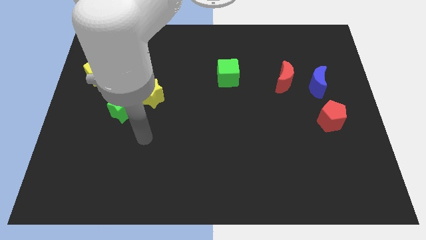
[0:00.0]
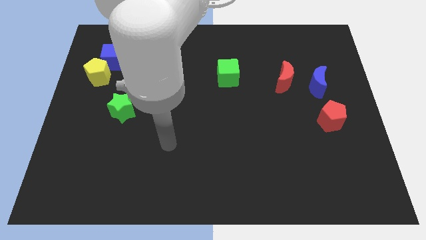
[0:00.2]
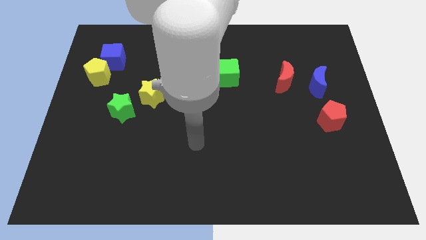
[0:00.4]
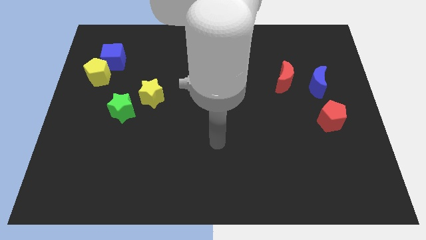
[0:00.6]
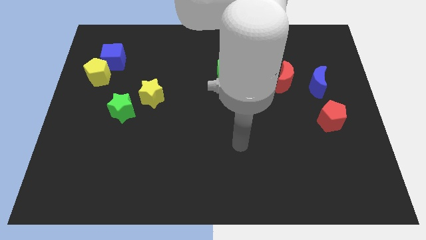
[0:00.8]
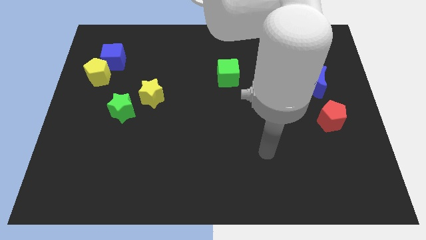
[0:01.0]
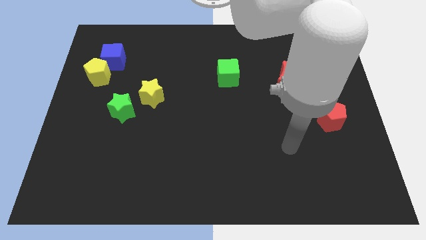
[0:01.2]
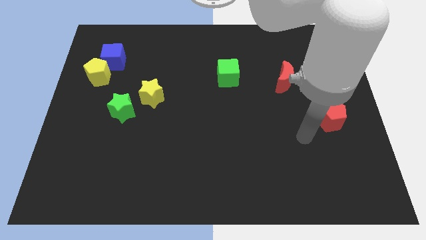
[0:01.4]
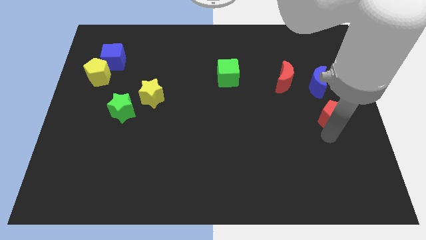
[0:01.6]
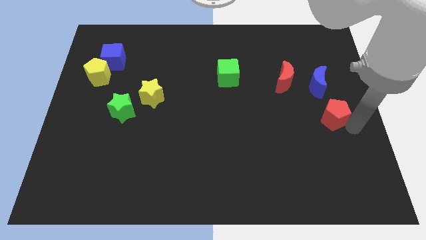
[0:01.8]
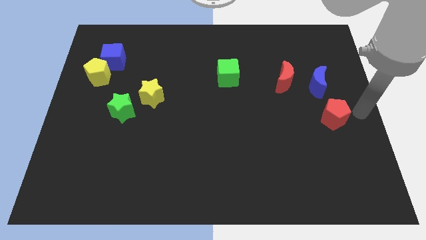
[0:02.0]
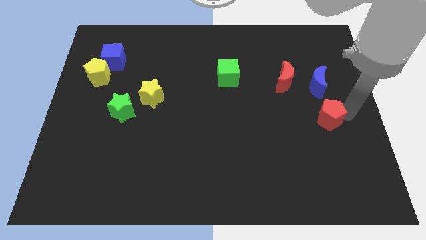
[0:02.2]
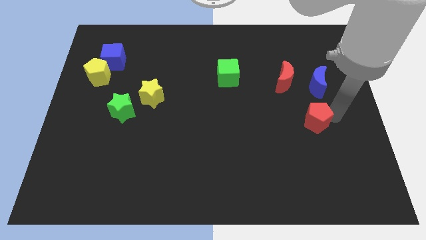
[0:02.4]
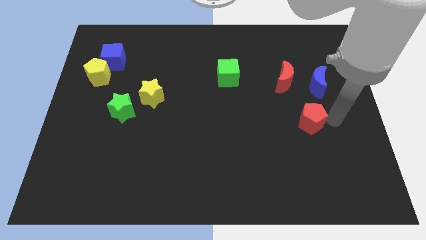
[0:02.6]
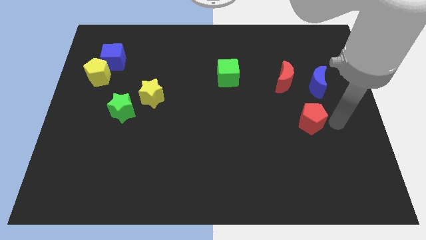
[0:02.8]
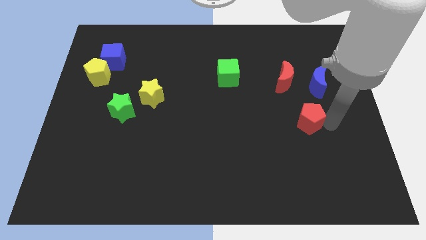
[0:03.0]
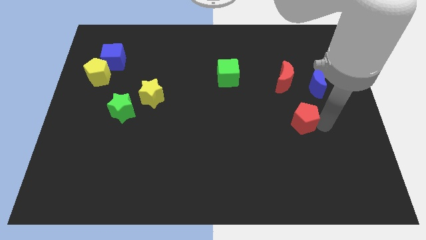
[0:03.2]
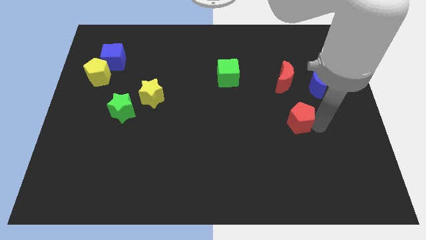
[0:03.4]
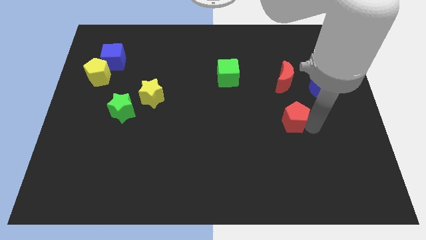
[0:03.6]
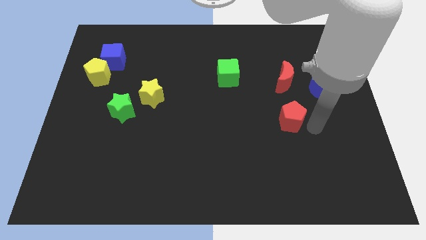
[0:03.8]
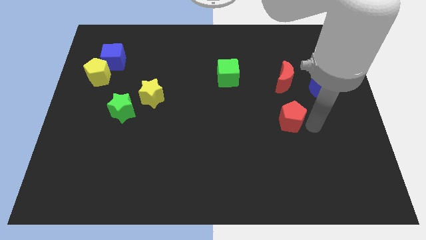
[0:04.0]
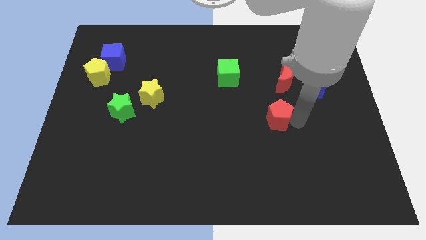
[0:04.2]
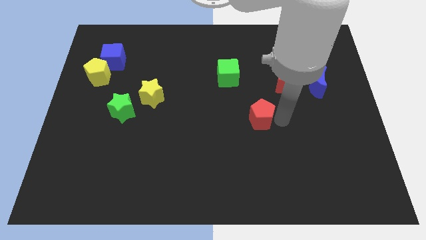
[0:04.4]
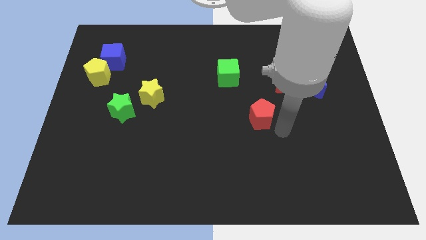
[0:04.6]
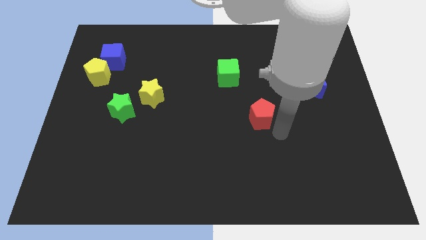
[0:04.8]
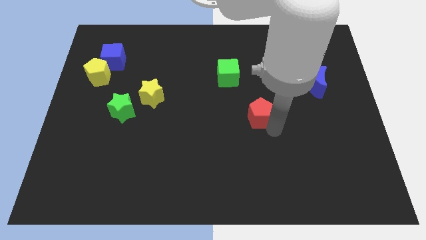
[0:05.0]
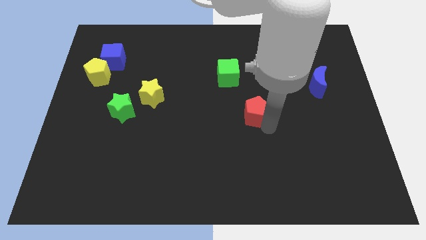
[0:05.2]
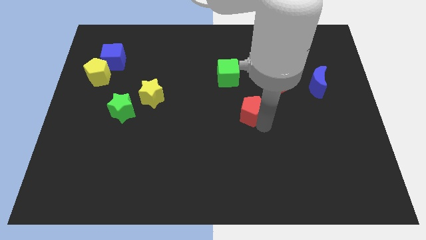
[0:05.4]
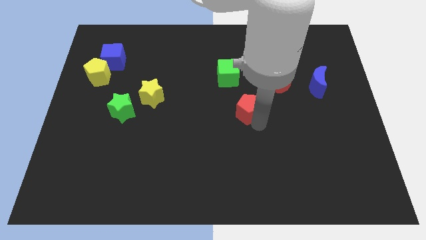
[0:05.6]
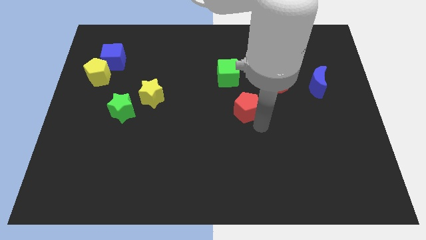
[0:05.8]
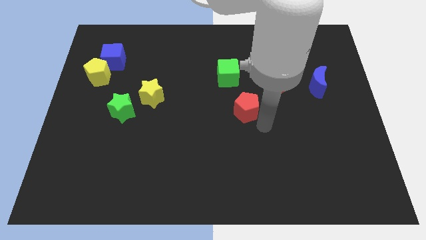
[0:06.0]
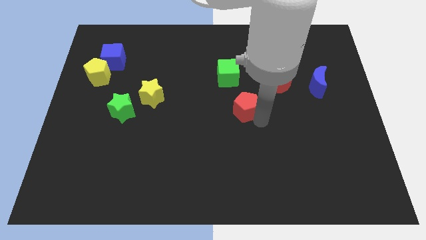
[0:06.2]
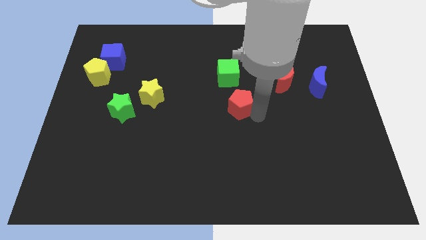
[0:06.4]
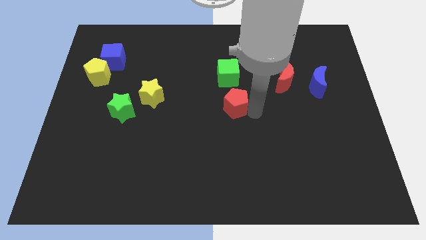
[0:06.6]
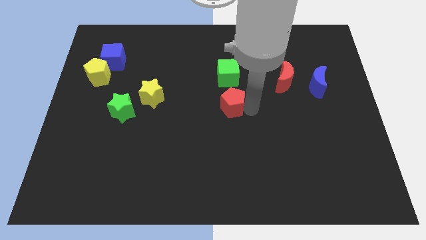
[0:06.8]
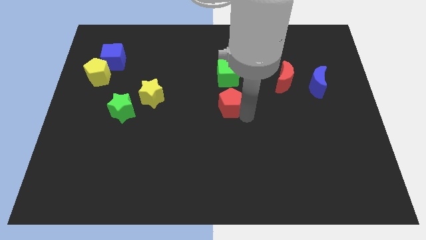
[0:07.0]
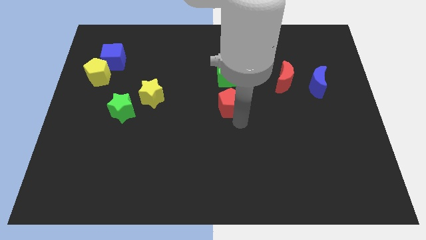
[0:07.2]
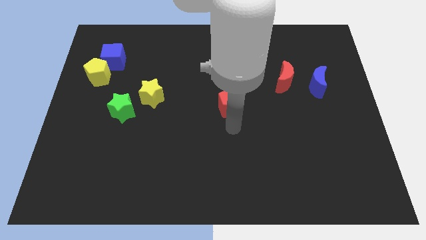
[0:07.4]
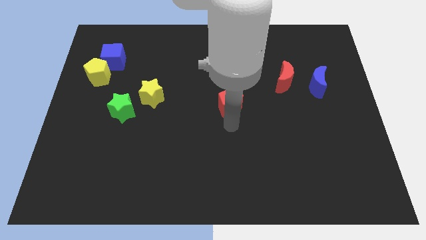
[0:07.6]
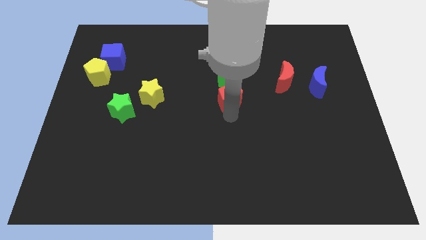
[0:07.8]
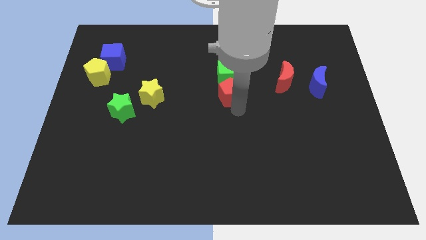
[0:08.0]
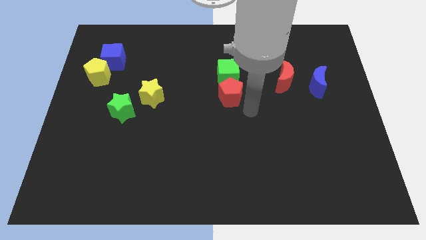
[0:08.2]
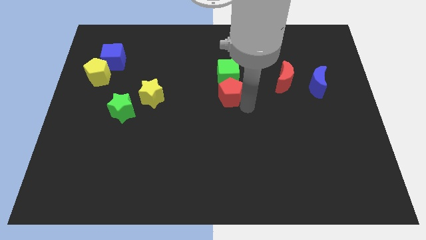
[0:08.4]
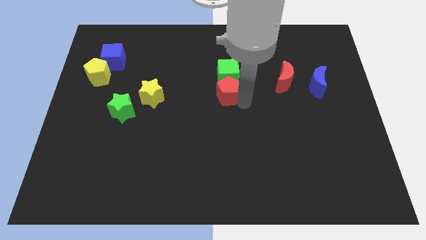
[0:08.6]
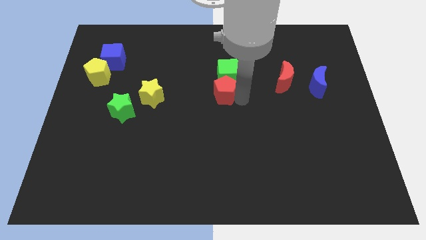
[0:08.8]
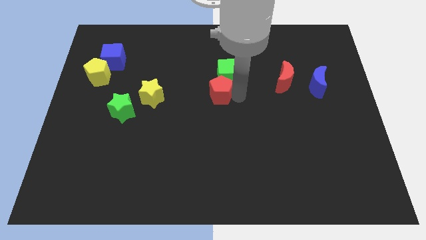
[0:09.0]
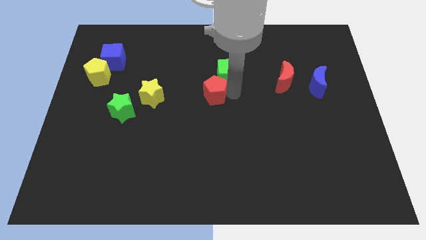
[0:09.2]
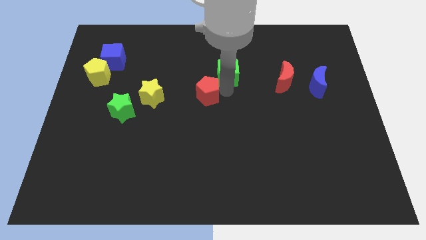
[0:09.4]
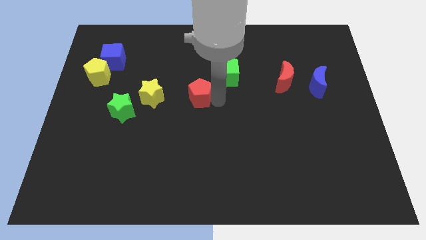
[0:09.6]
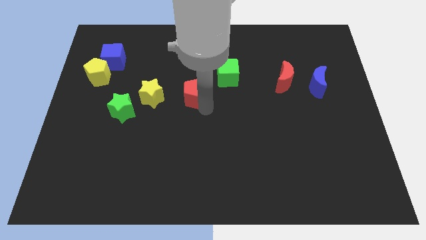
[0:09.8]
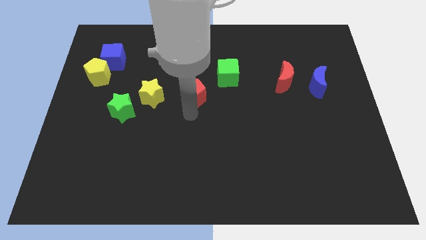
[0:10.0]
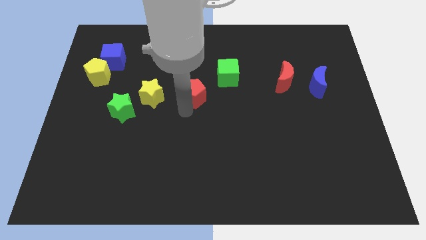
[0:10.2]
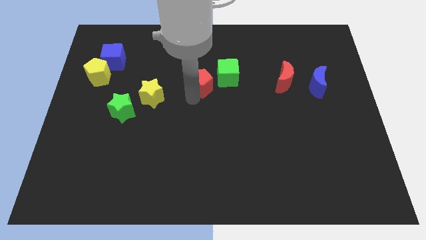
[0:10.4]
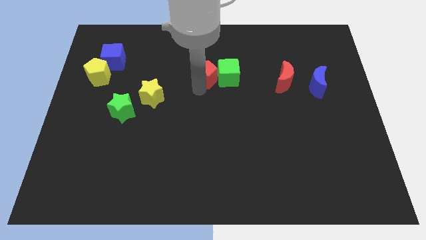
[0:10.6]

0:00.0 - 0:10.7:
push the red pentagon diagonally up and to the left of the green cube

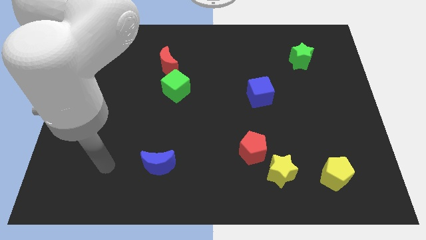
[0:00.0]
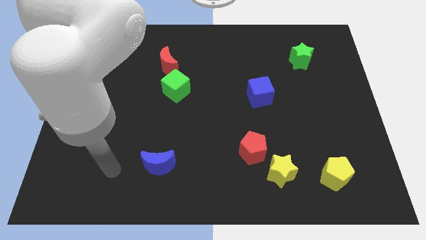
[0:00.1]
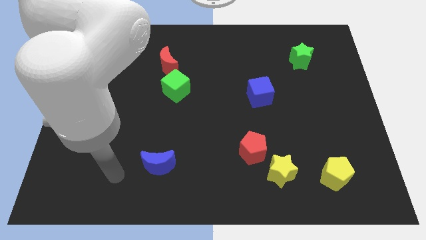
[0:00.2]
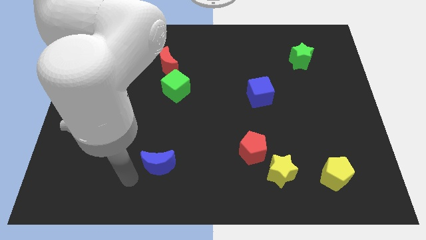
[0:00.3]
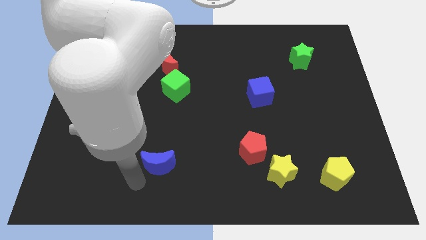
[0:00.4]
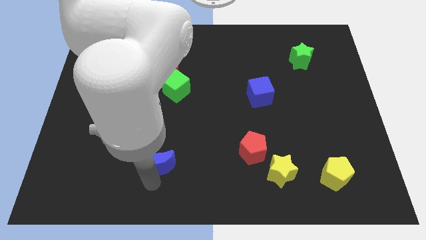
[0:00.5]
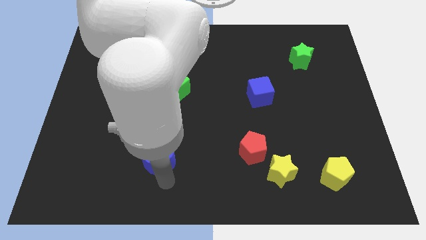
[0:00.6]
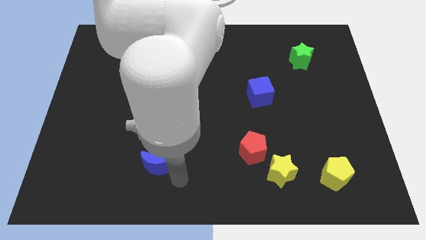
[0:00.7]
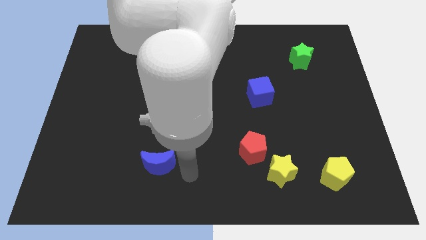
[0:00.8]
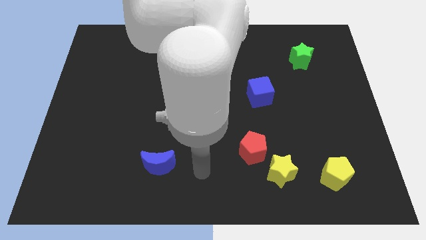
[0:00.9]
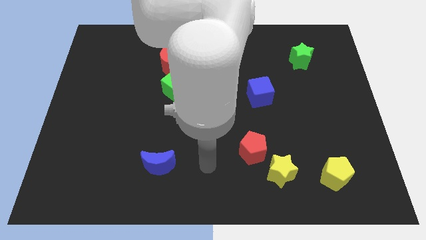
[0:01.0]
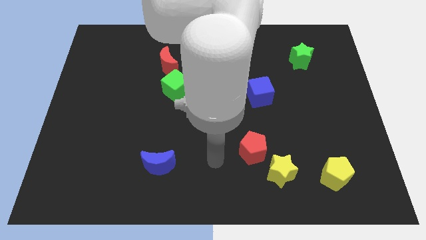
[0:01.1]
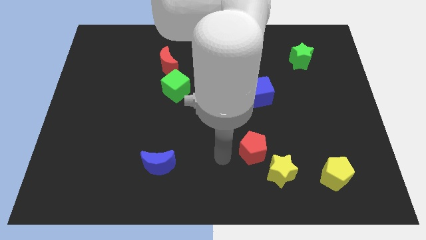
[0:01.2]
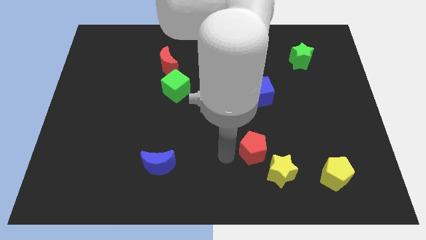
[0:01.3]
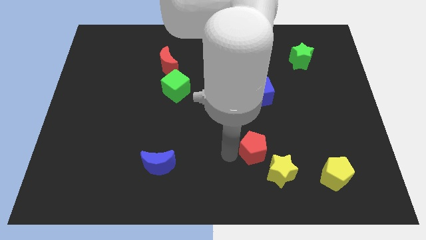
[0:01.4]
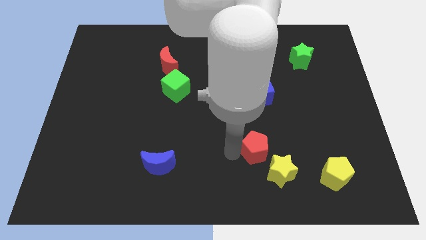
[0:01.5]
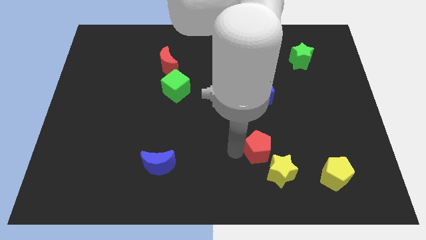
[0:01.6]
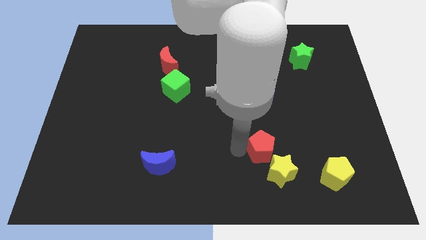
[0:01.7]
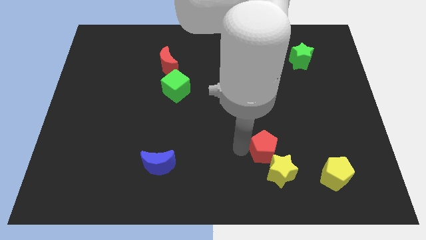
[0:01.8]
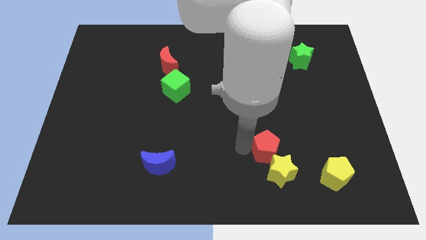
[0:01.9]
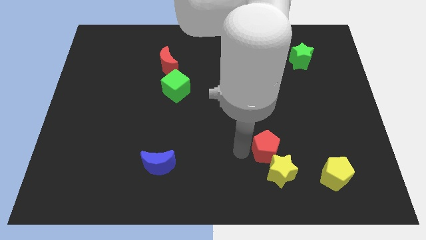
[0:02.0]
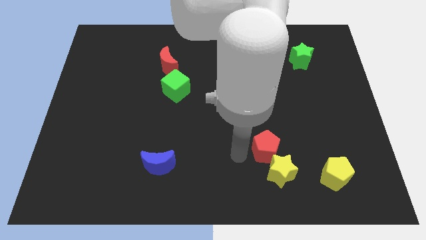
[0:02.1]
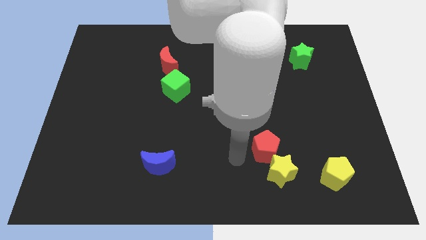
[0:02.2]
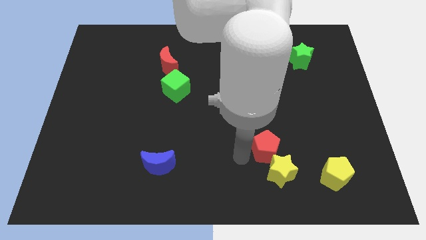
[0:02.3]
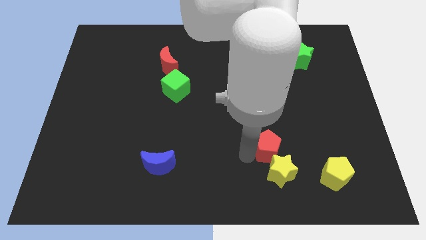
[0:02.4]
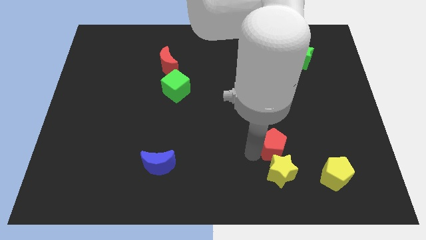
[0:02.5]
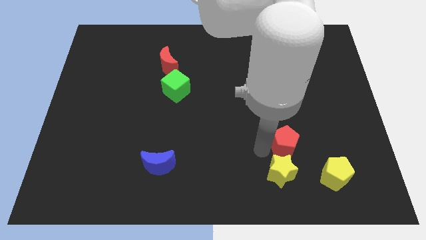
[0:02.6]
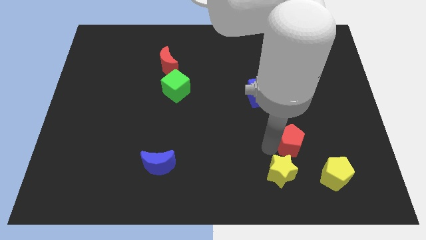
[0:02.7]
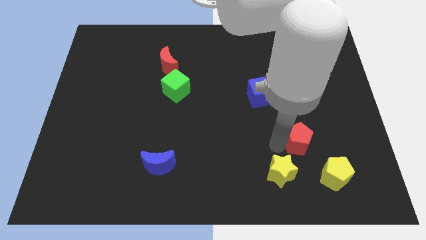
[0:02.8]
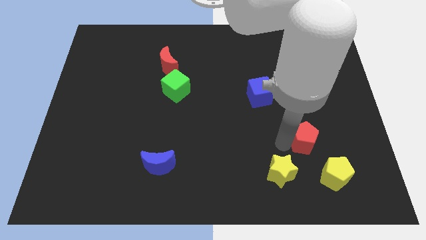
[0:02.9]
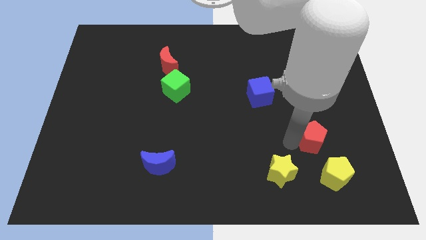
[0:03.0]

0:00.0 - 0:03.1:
push the red pentagon above the yellow pentagon
